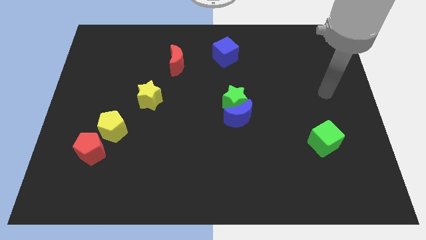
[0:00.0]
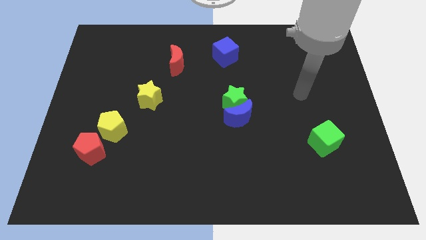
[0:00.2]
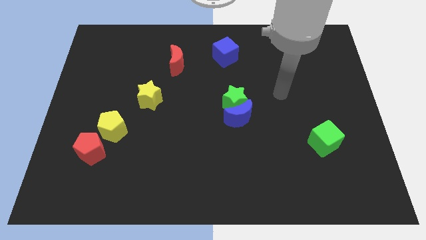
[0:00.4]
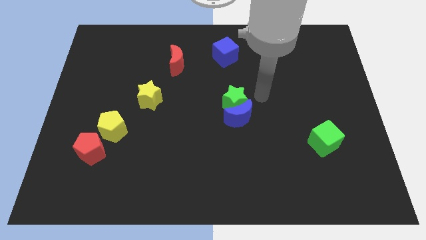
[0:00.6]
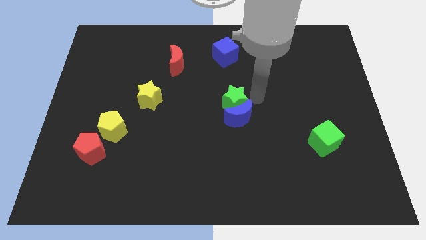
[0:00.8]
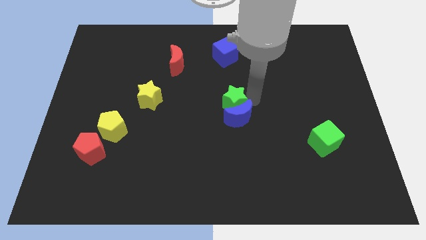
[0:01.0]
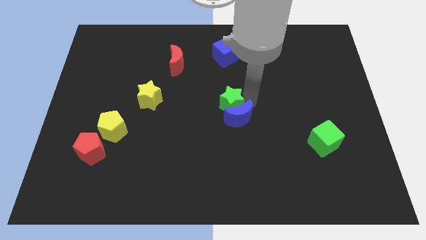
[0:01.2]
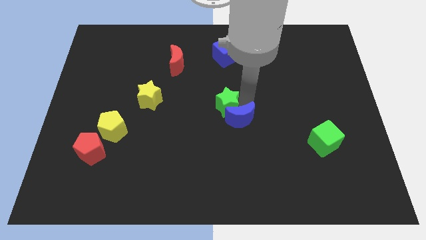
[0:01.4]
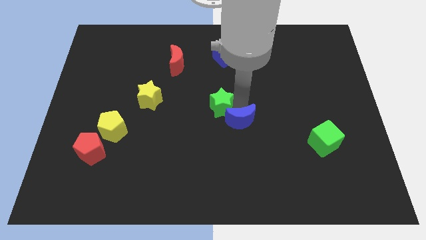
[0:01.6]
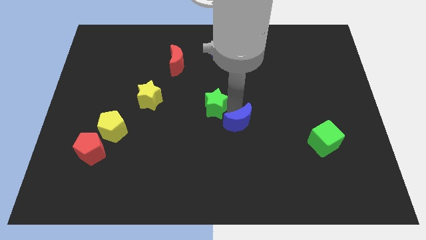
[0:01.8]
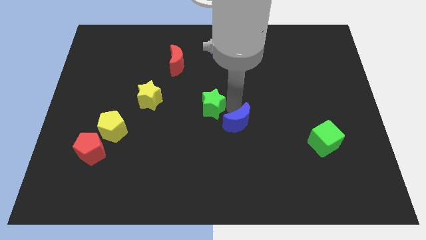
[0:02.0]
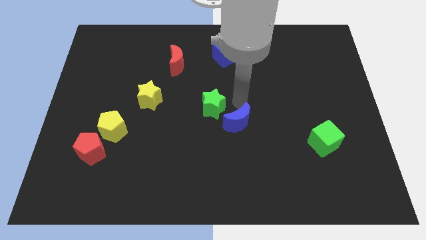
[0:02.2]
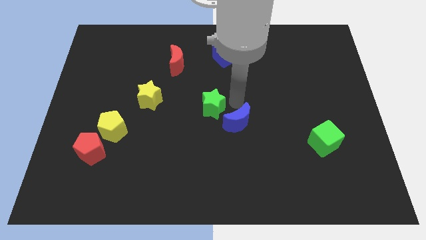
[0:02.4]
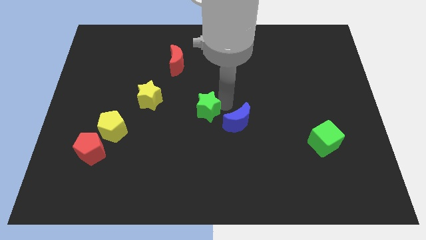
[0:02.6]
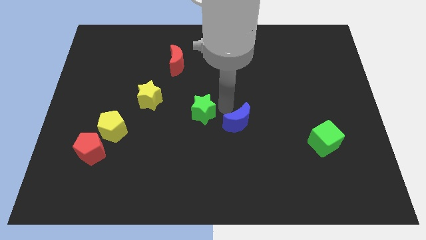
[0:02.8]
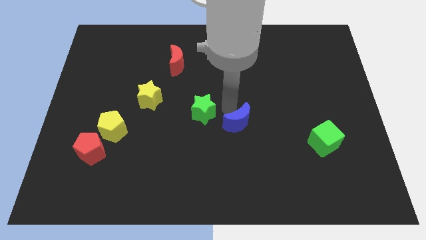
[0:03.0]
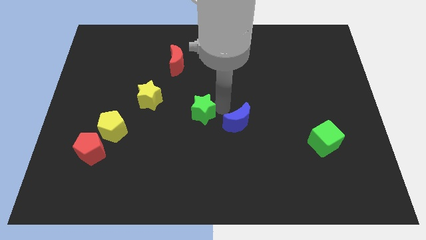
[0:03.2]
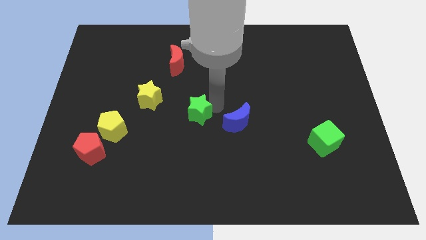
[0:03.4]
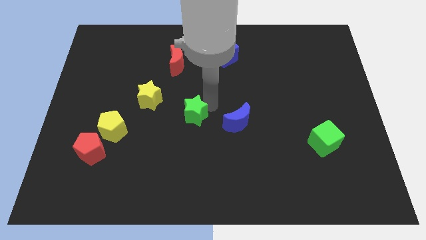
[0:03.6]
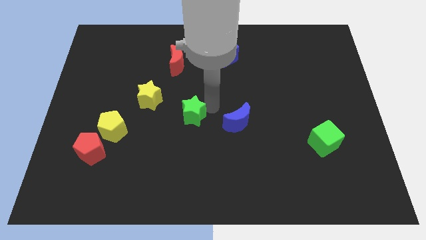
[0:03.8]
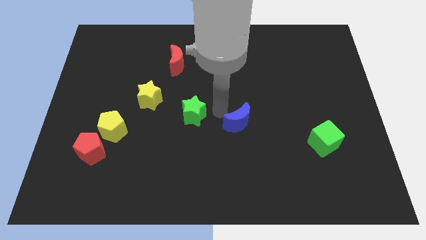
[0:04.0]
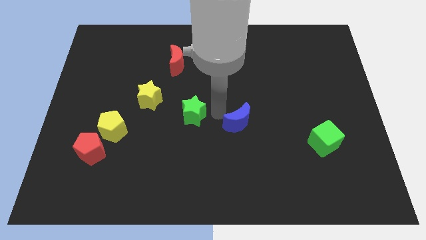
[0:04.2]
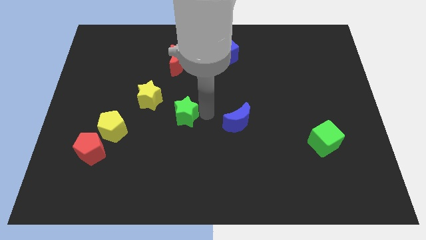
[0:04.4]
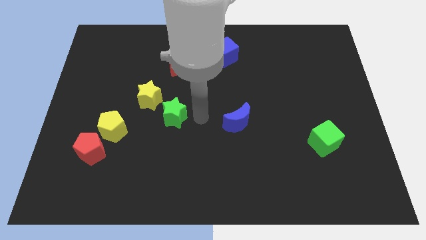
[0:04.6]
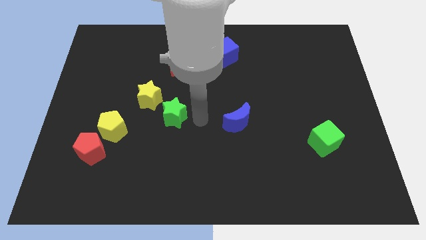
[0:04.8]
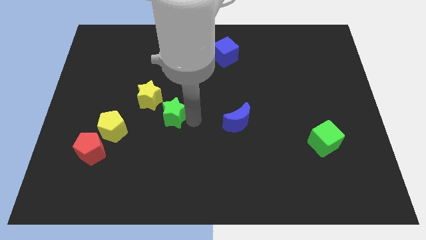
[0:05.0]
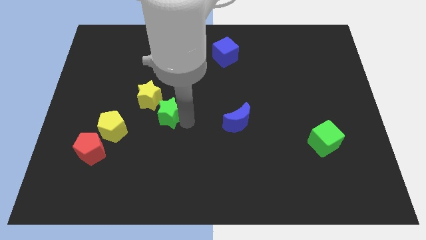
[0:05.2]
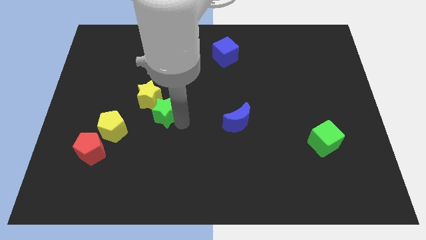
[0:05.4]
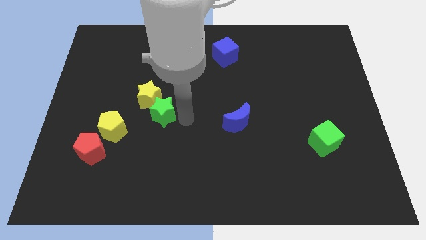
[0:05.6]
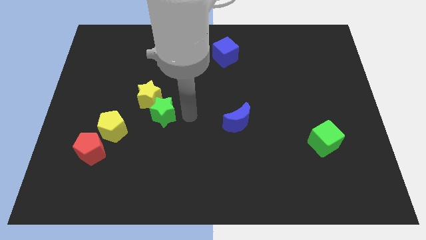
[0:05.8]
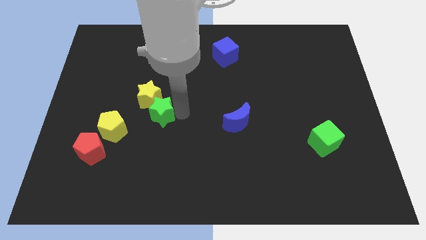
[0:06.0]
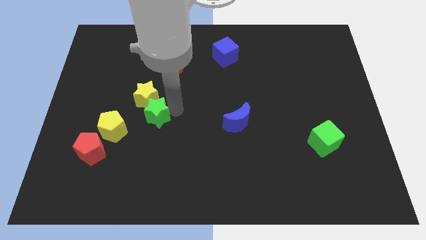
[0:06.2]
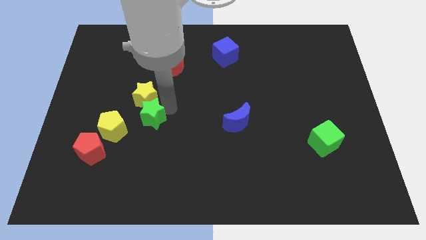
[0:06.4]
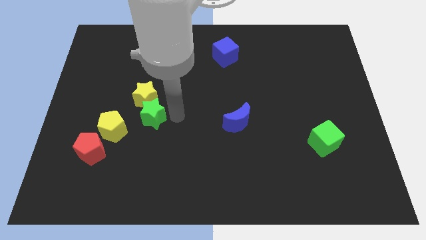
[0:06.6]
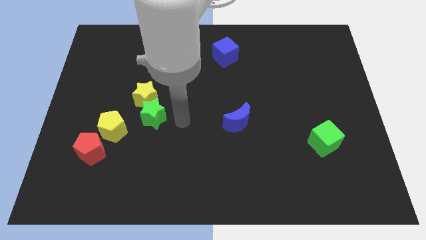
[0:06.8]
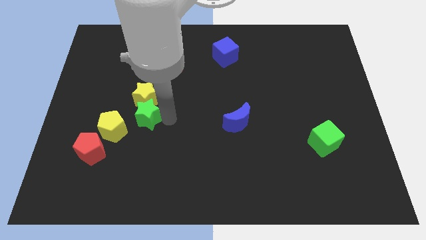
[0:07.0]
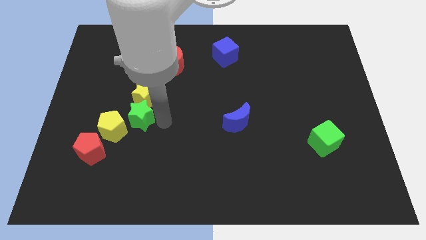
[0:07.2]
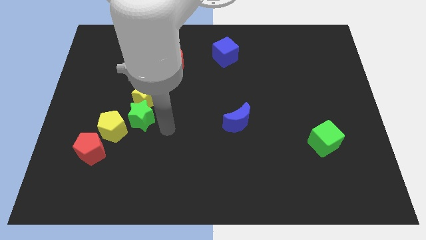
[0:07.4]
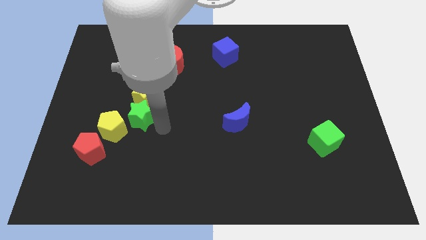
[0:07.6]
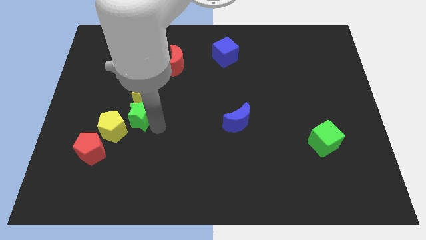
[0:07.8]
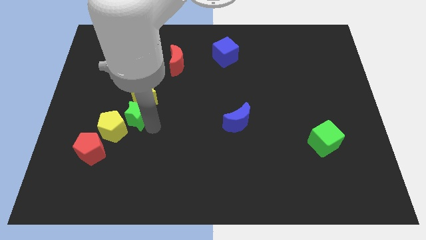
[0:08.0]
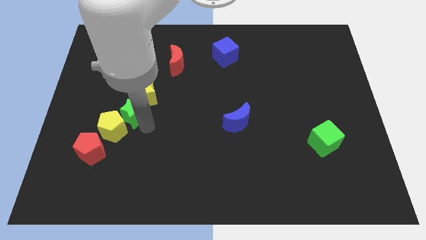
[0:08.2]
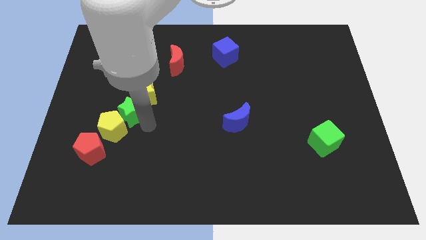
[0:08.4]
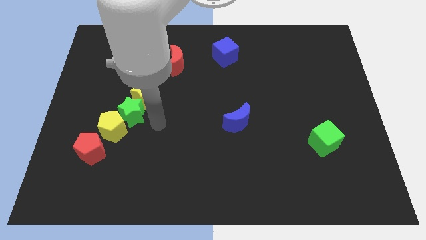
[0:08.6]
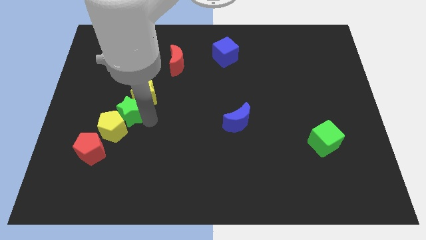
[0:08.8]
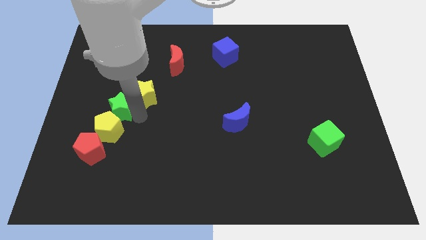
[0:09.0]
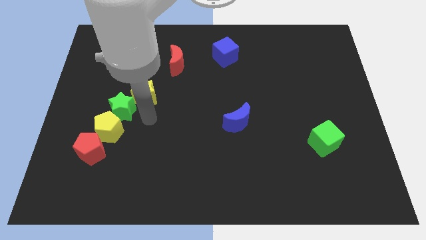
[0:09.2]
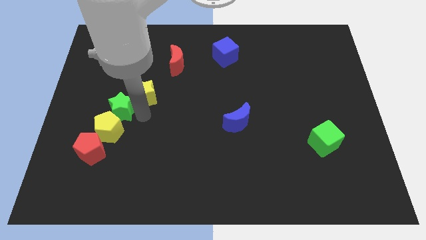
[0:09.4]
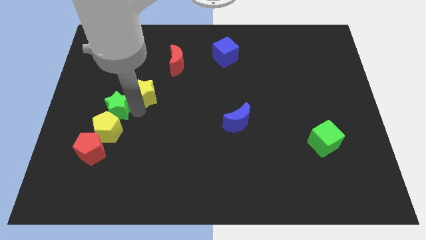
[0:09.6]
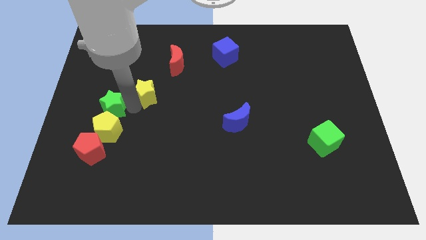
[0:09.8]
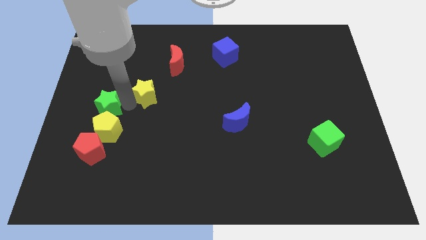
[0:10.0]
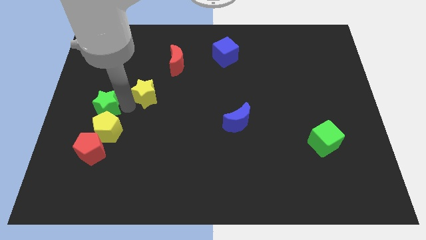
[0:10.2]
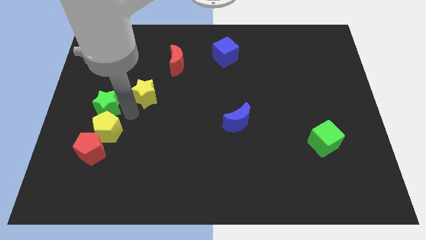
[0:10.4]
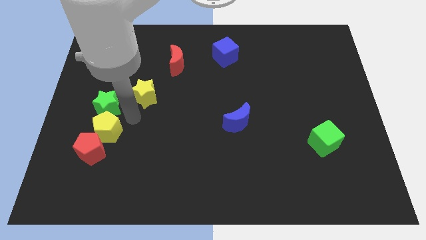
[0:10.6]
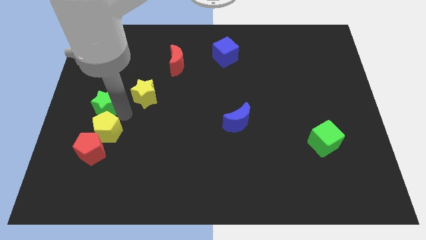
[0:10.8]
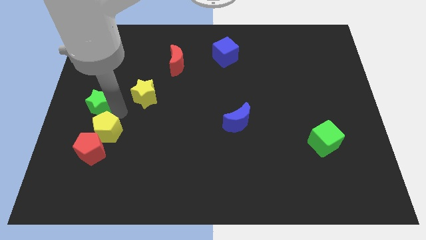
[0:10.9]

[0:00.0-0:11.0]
move the green star to the left side
